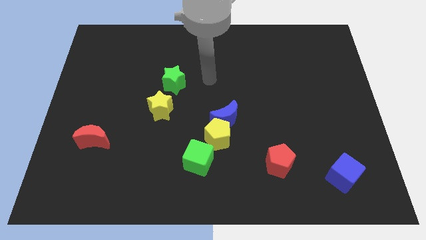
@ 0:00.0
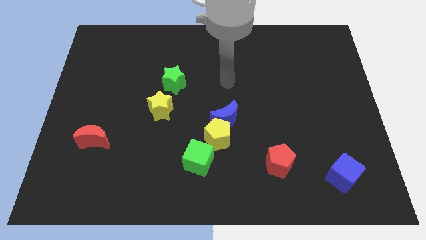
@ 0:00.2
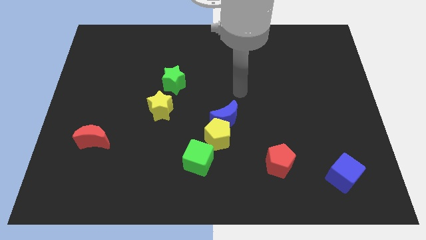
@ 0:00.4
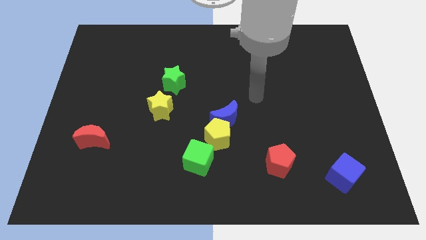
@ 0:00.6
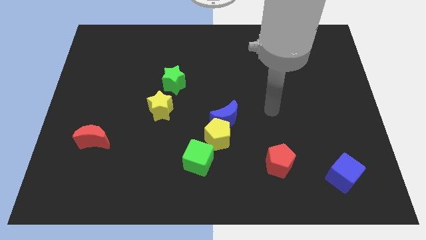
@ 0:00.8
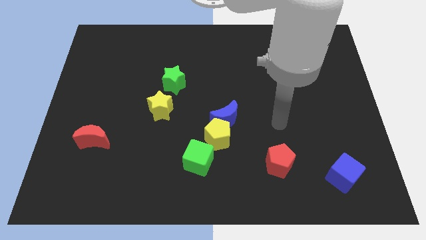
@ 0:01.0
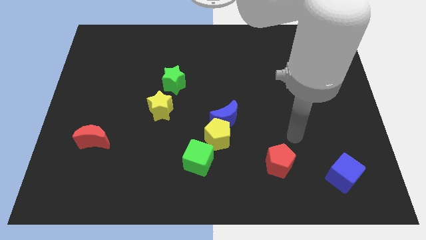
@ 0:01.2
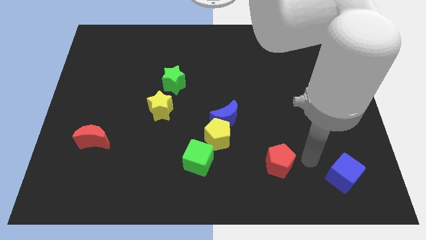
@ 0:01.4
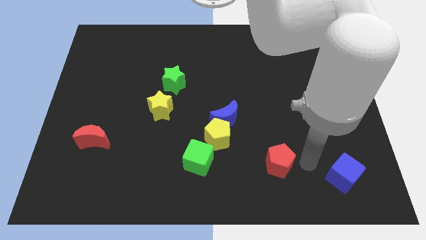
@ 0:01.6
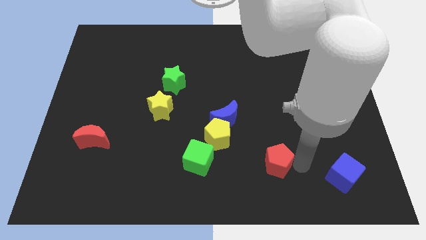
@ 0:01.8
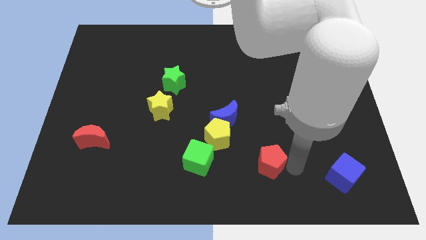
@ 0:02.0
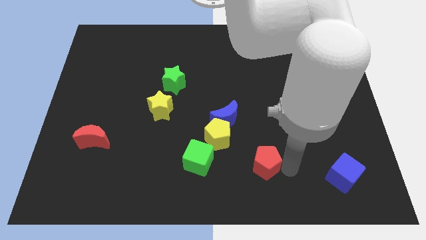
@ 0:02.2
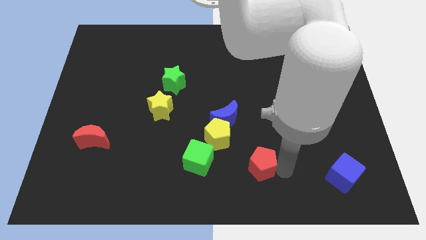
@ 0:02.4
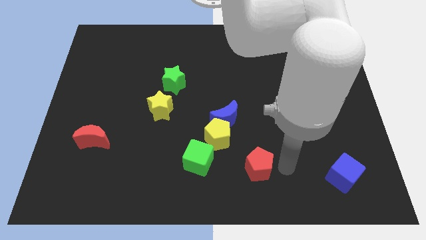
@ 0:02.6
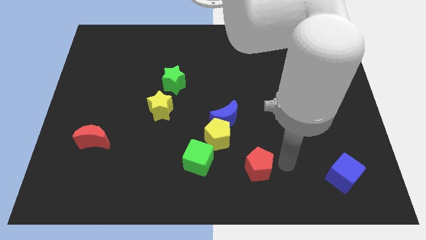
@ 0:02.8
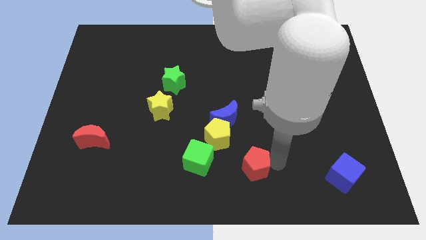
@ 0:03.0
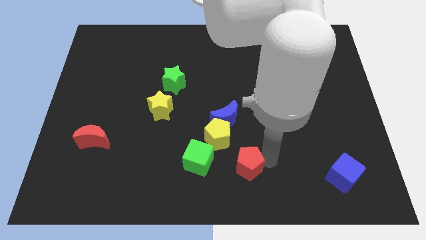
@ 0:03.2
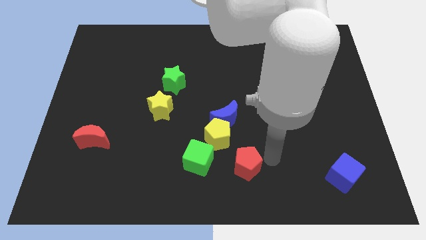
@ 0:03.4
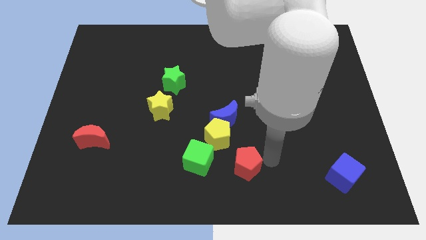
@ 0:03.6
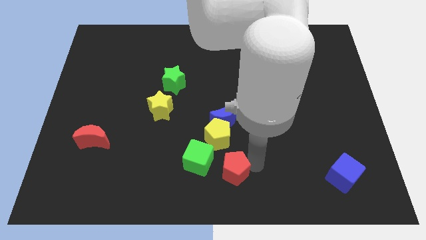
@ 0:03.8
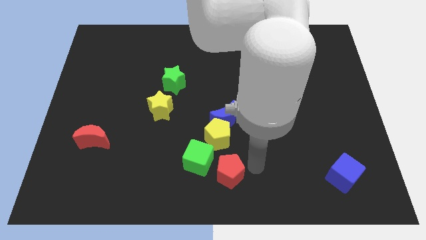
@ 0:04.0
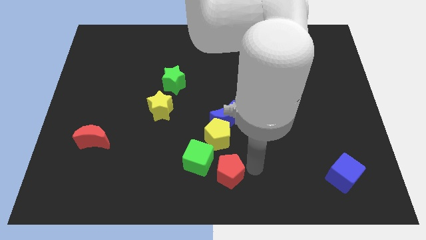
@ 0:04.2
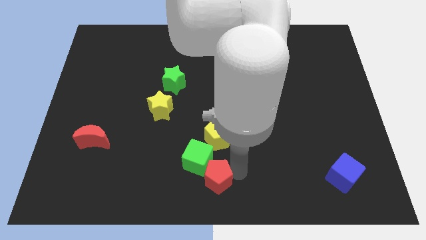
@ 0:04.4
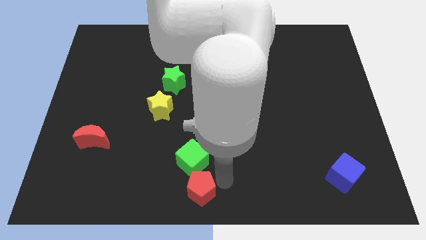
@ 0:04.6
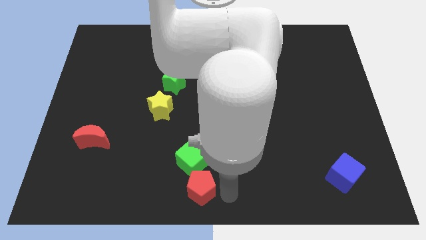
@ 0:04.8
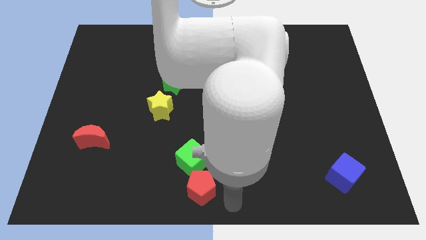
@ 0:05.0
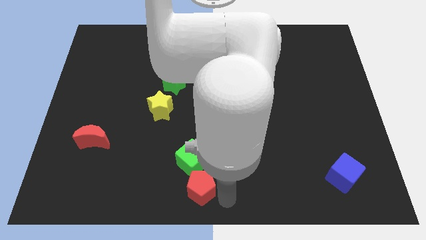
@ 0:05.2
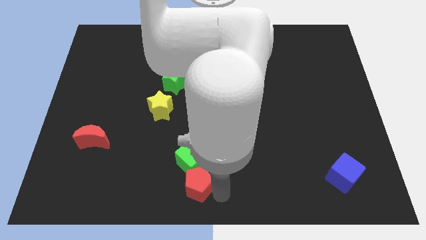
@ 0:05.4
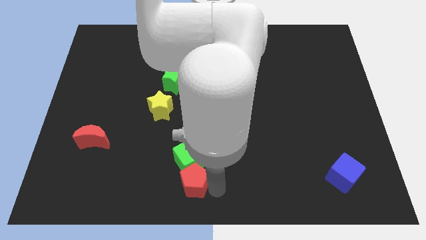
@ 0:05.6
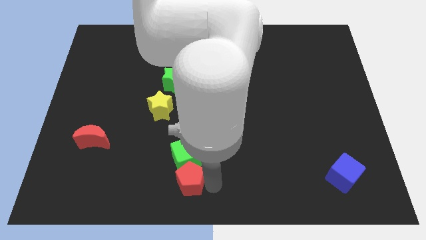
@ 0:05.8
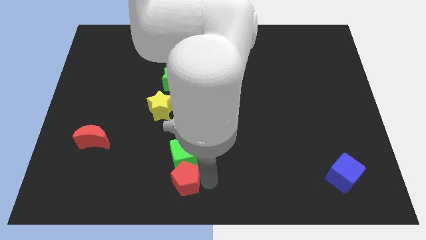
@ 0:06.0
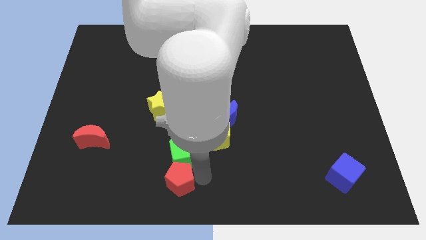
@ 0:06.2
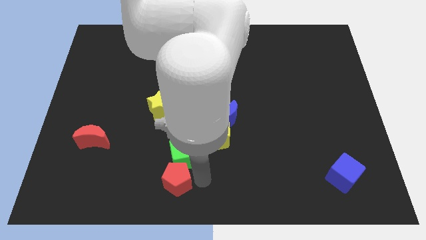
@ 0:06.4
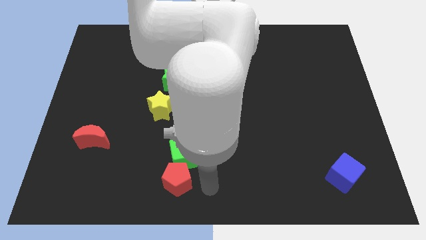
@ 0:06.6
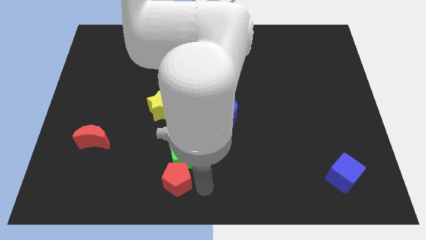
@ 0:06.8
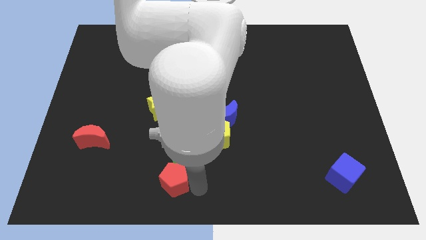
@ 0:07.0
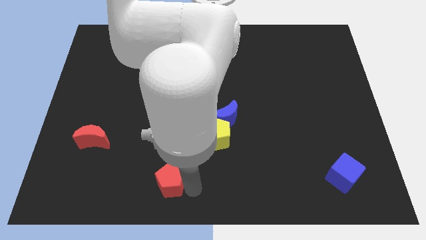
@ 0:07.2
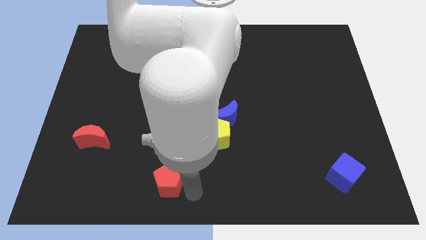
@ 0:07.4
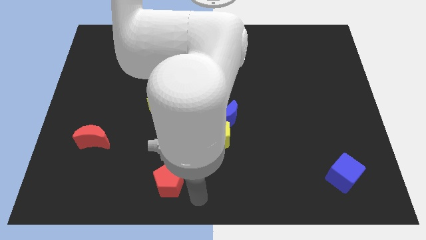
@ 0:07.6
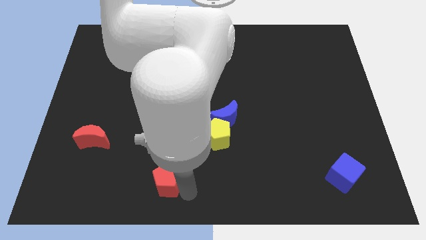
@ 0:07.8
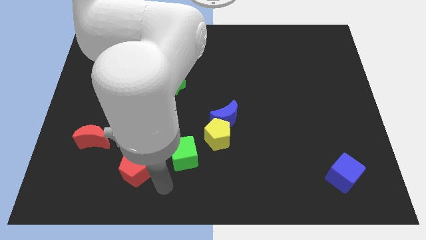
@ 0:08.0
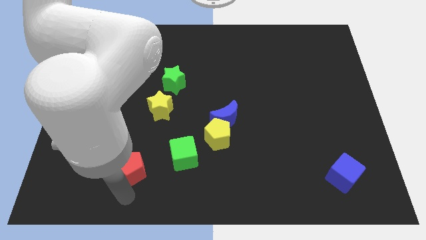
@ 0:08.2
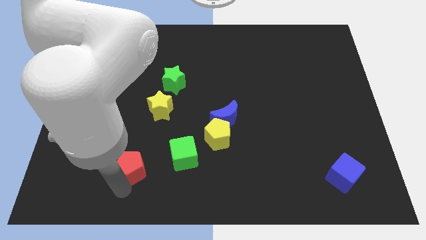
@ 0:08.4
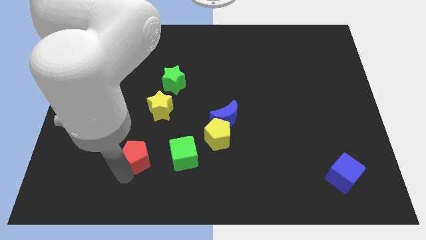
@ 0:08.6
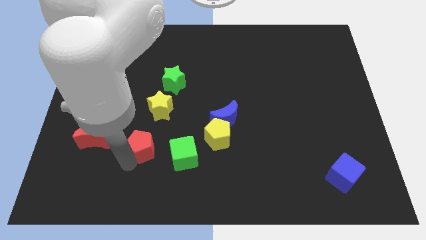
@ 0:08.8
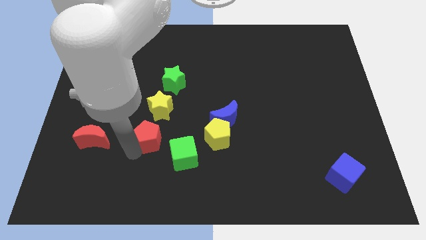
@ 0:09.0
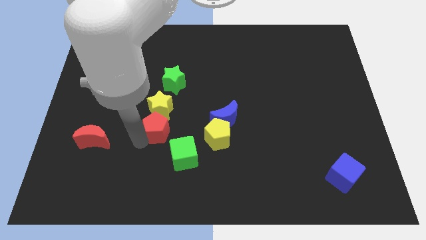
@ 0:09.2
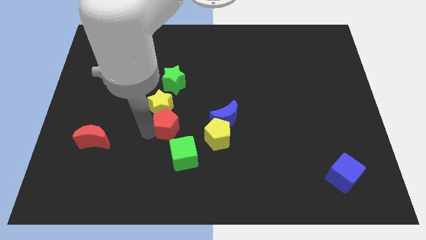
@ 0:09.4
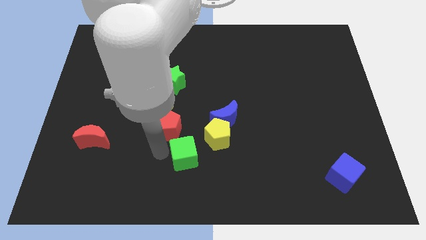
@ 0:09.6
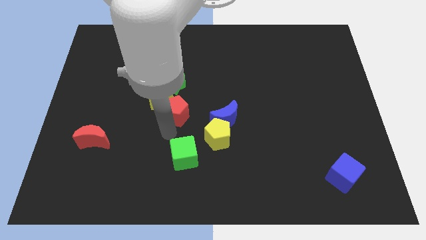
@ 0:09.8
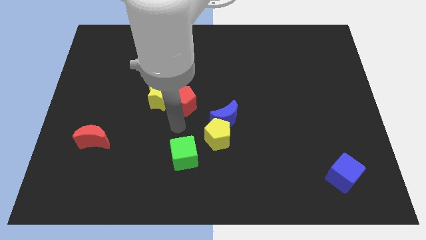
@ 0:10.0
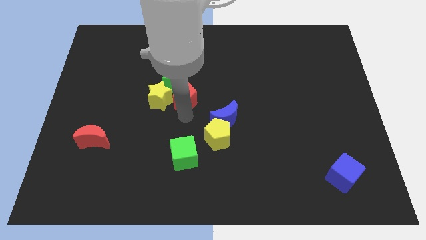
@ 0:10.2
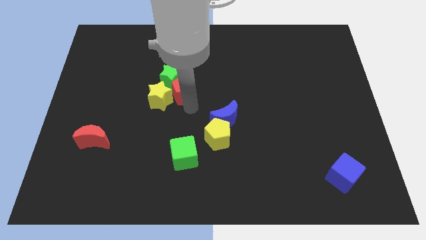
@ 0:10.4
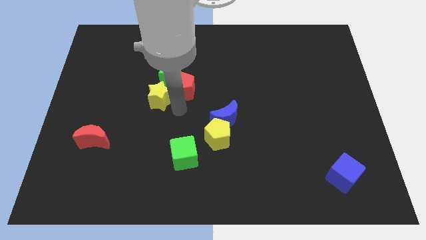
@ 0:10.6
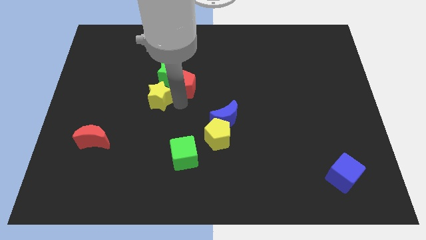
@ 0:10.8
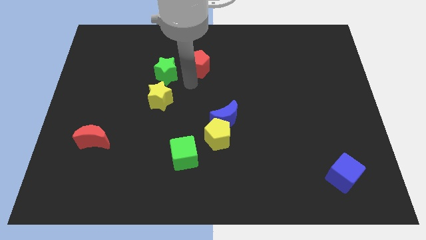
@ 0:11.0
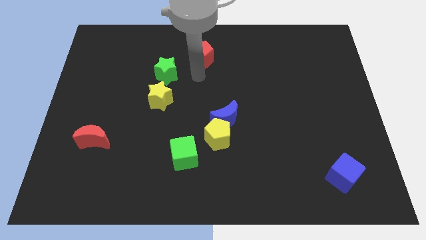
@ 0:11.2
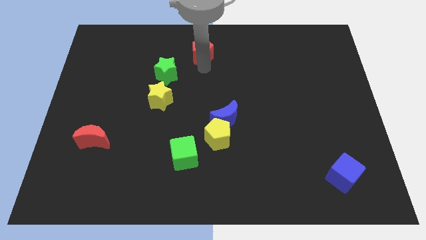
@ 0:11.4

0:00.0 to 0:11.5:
put the red pentagon to the top
